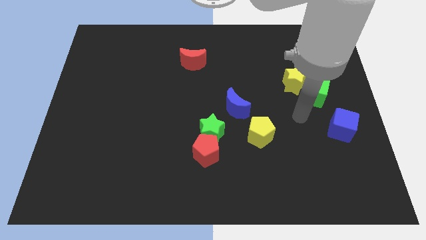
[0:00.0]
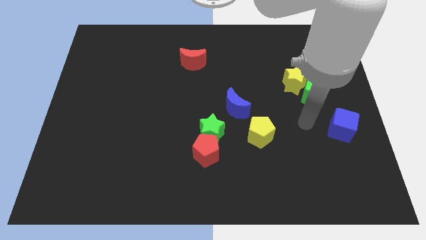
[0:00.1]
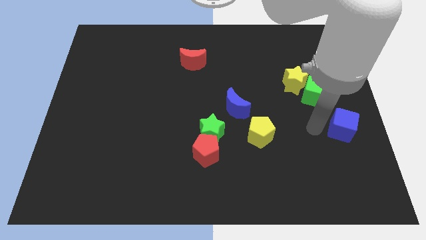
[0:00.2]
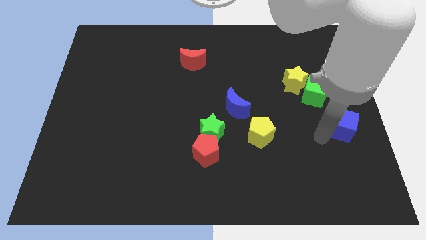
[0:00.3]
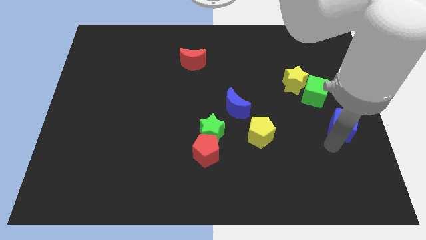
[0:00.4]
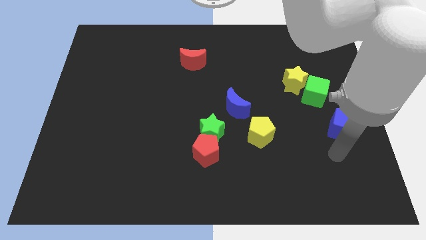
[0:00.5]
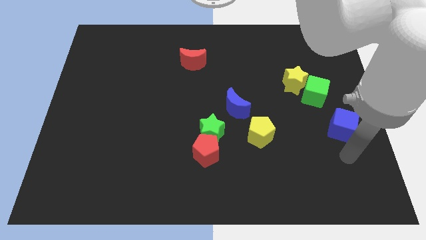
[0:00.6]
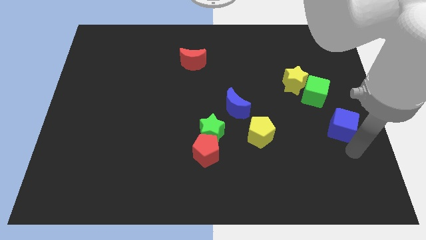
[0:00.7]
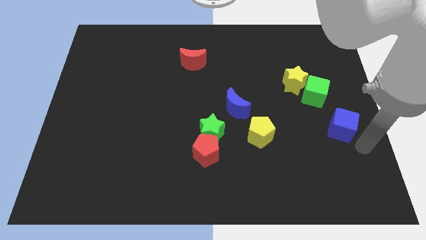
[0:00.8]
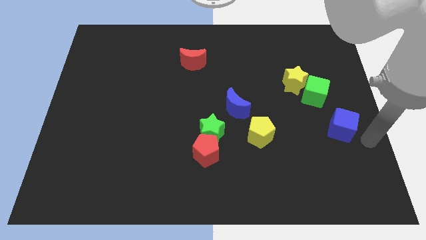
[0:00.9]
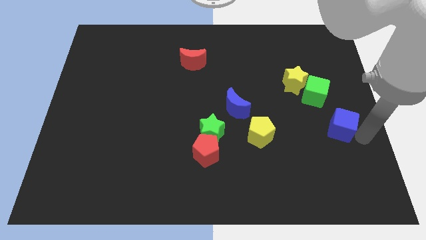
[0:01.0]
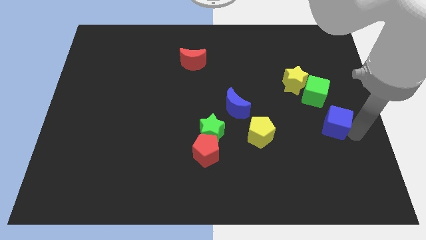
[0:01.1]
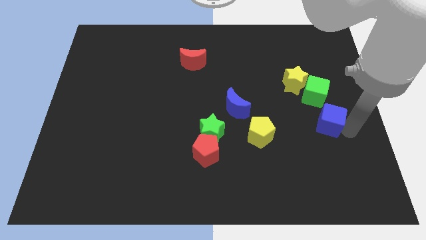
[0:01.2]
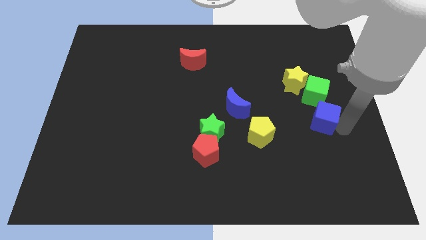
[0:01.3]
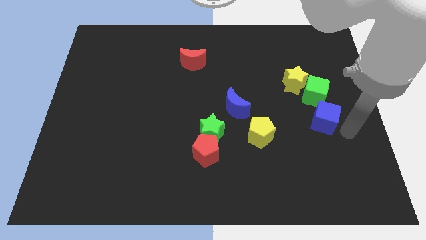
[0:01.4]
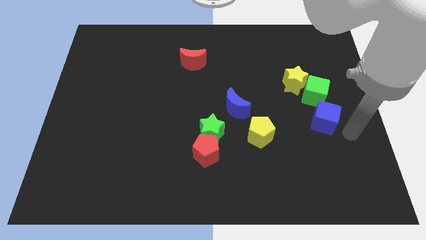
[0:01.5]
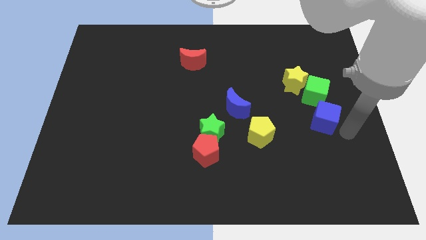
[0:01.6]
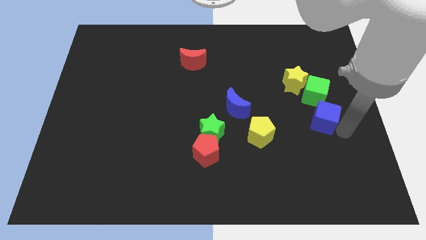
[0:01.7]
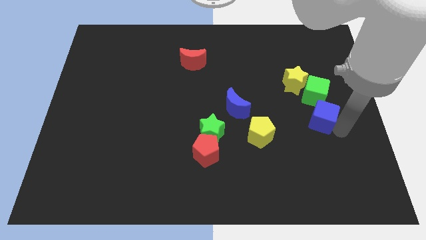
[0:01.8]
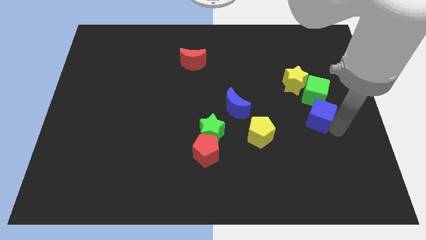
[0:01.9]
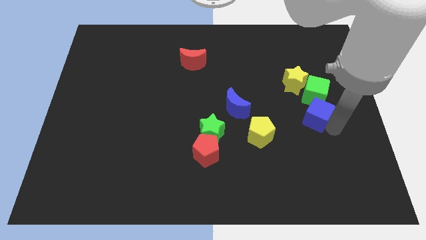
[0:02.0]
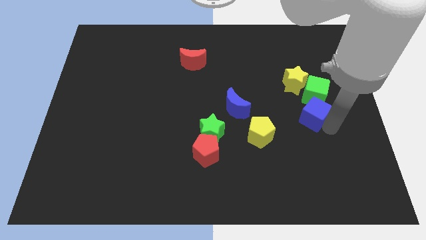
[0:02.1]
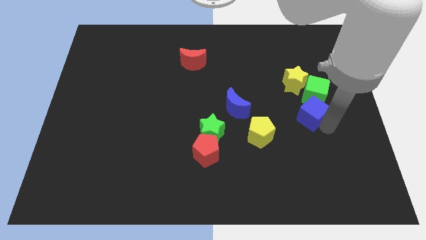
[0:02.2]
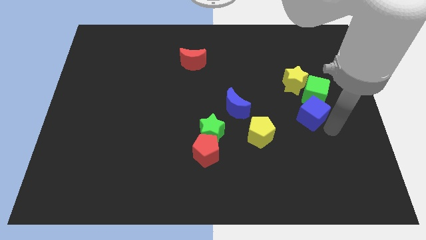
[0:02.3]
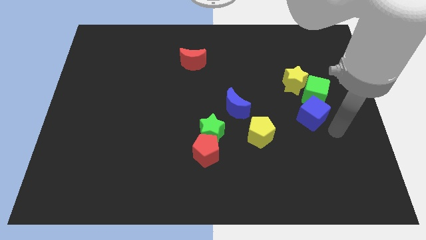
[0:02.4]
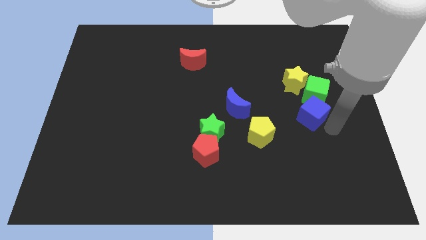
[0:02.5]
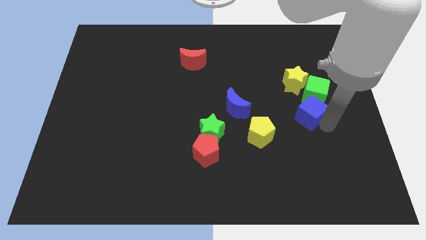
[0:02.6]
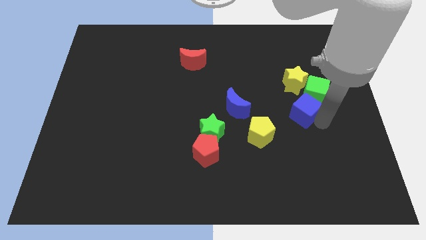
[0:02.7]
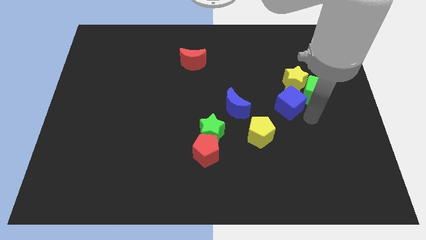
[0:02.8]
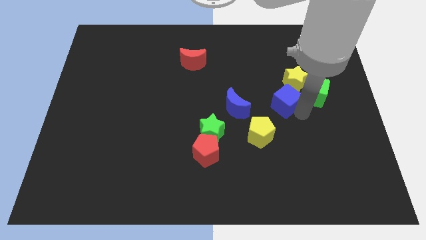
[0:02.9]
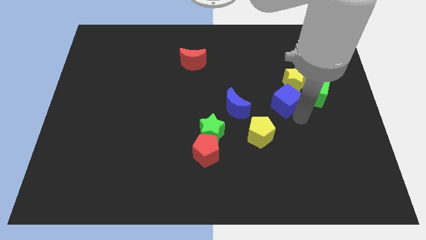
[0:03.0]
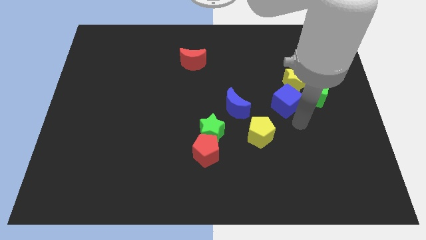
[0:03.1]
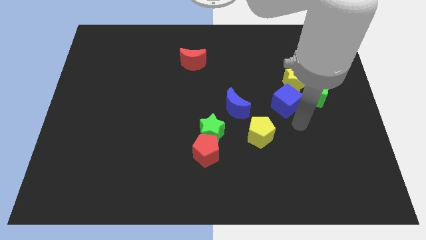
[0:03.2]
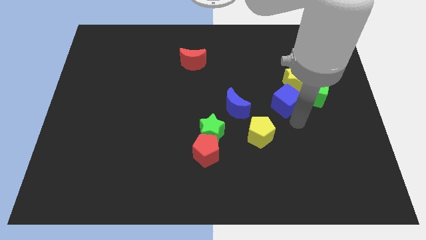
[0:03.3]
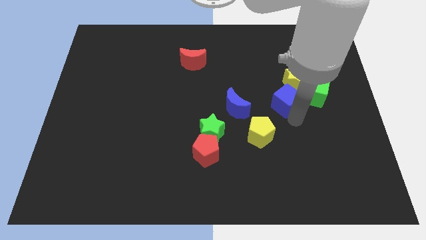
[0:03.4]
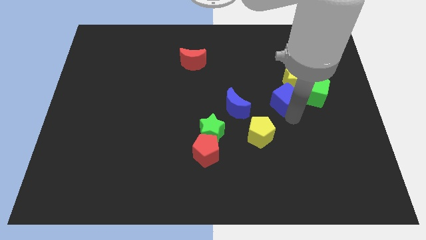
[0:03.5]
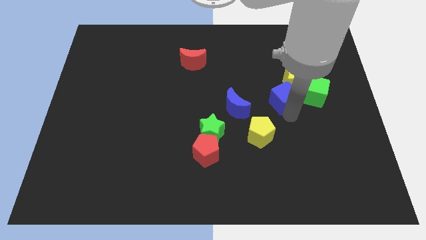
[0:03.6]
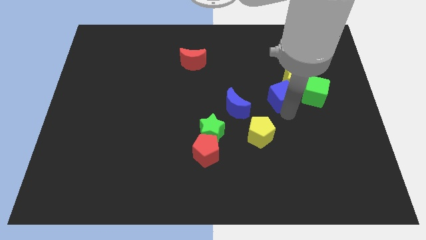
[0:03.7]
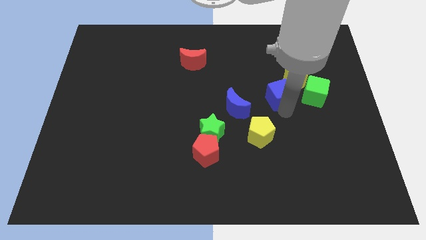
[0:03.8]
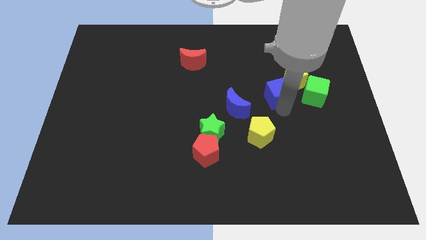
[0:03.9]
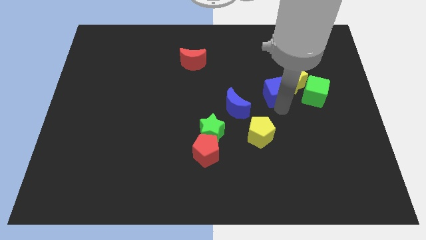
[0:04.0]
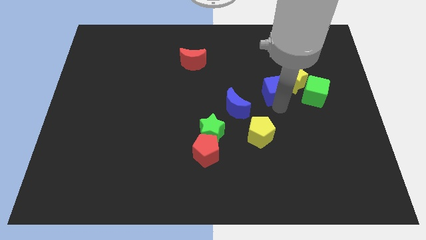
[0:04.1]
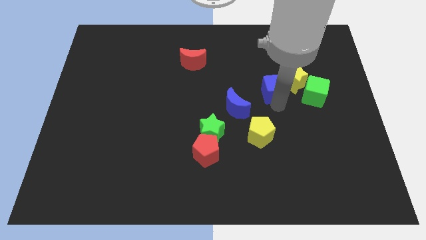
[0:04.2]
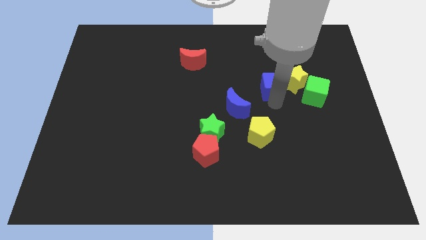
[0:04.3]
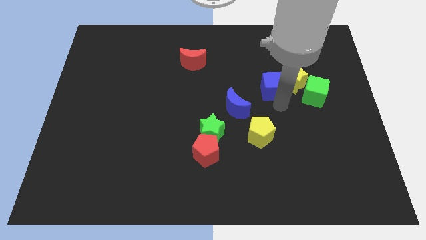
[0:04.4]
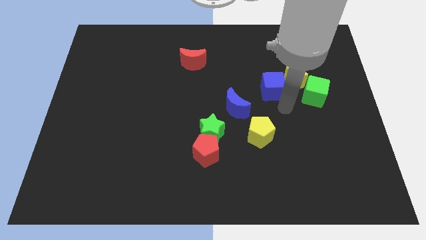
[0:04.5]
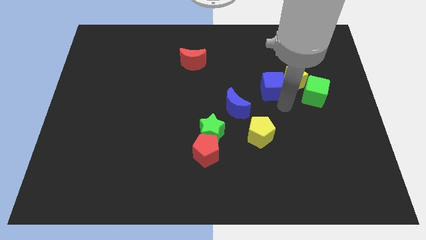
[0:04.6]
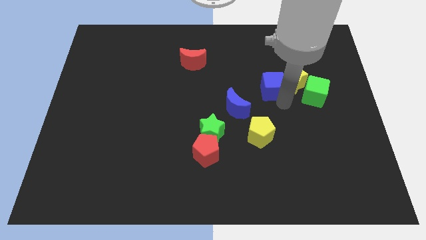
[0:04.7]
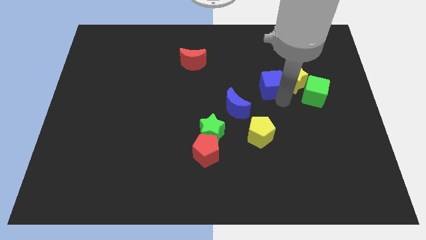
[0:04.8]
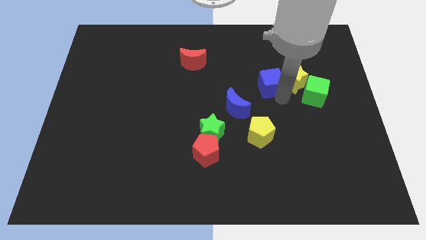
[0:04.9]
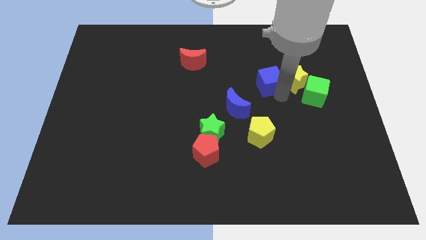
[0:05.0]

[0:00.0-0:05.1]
push the blue cube diagonally up and left

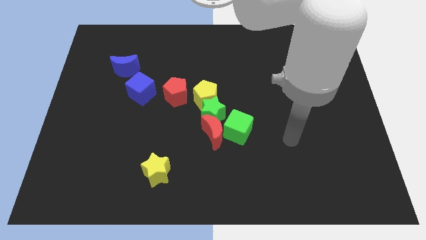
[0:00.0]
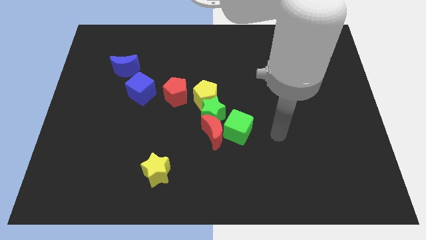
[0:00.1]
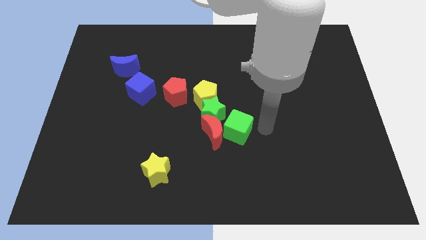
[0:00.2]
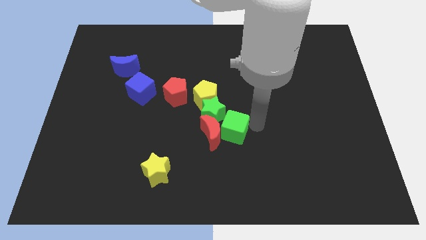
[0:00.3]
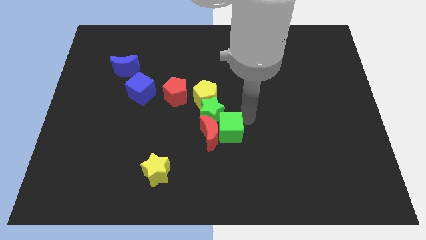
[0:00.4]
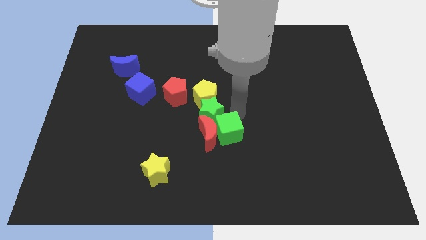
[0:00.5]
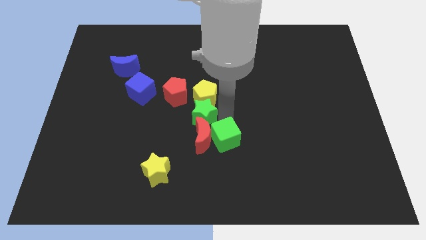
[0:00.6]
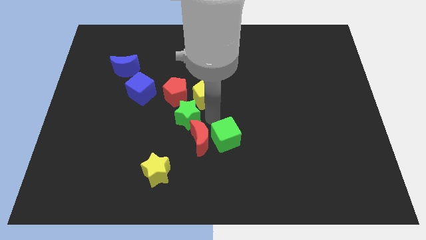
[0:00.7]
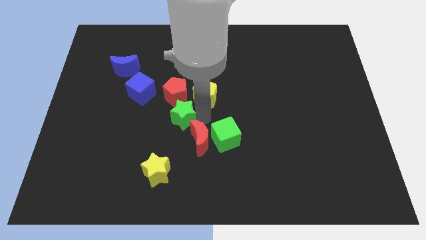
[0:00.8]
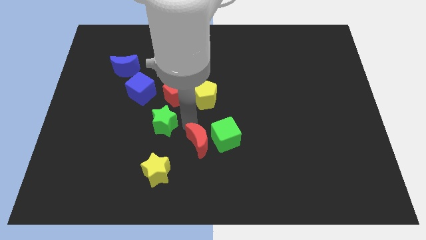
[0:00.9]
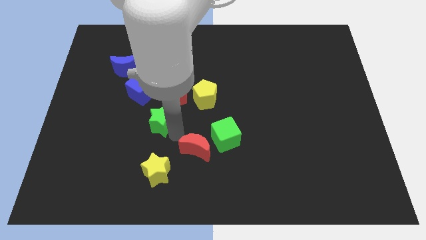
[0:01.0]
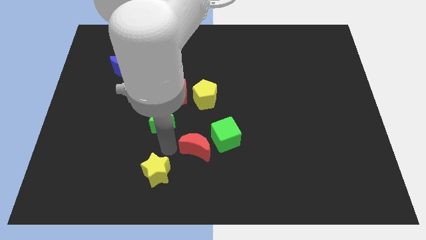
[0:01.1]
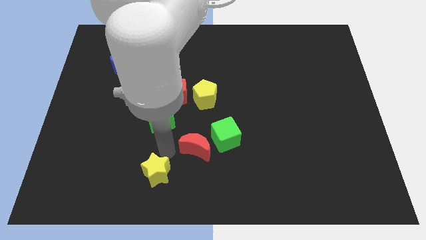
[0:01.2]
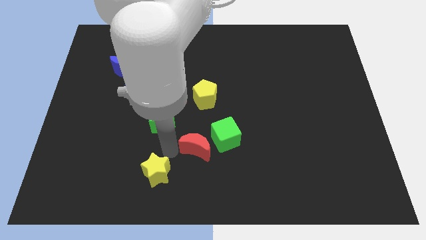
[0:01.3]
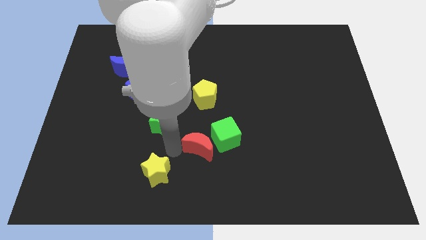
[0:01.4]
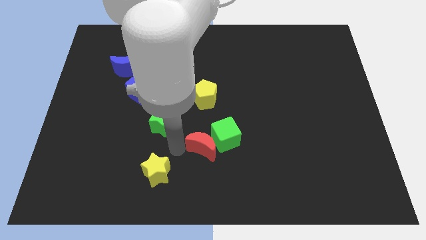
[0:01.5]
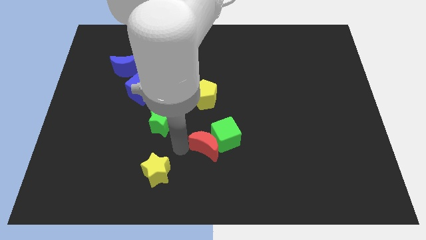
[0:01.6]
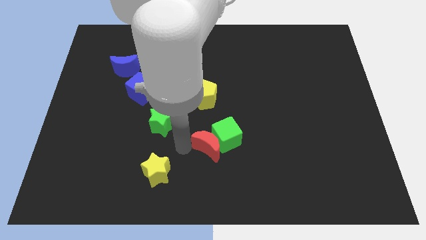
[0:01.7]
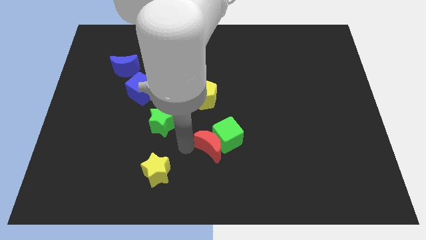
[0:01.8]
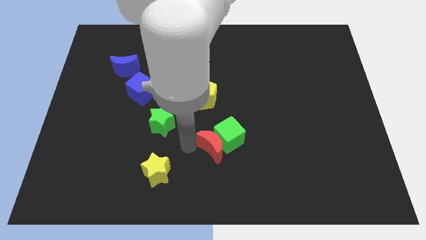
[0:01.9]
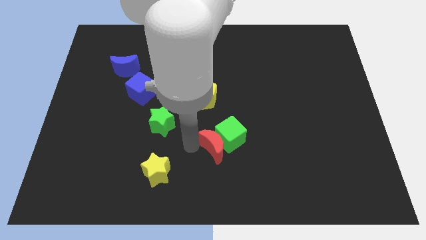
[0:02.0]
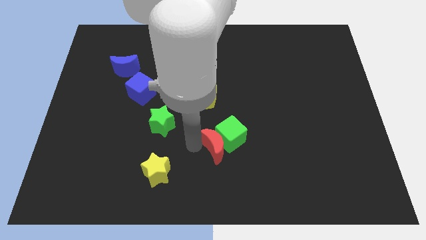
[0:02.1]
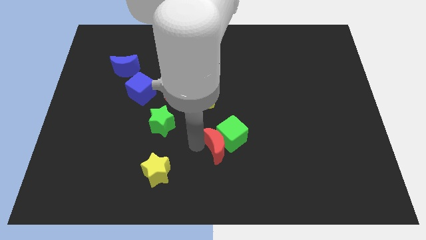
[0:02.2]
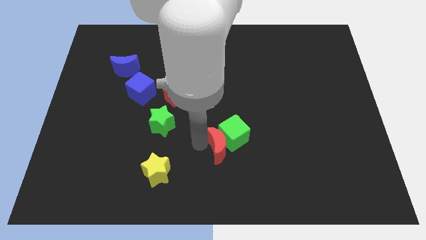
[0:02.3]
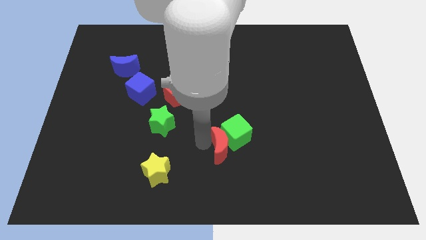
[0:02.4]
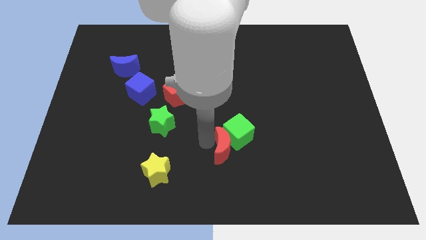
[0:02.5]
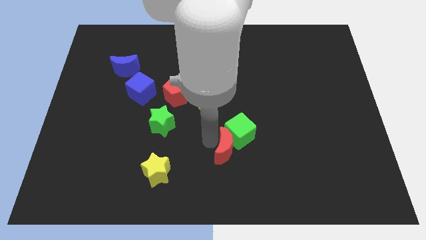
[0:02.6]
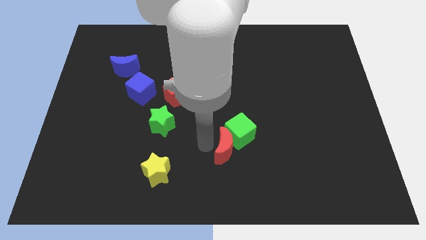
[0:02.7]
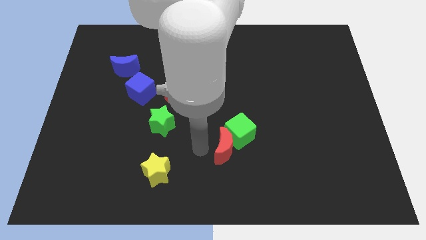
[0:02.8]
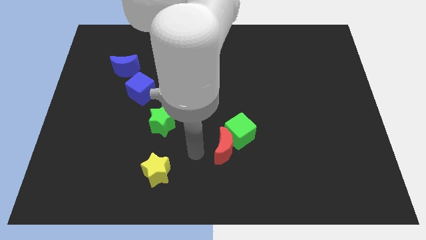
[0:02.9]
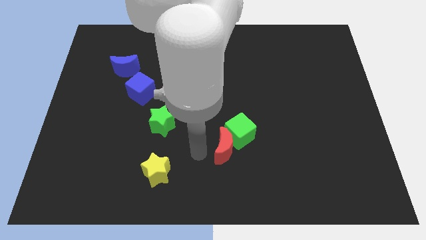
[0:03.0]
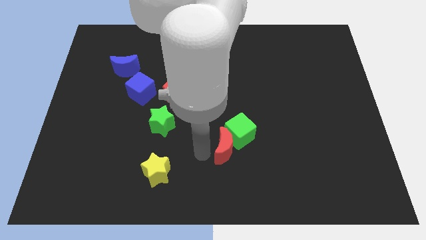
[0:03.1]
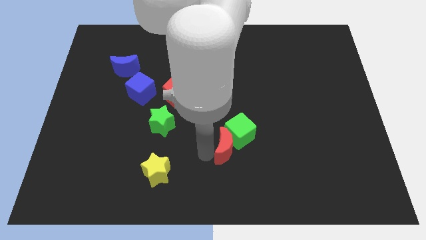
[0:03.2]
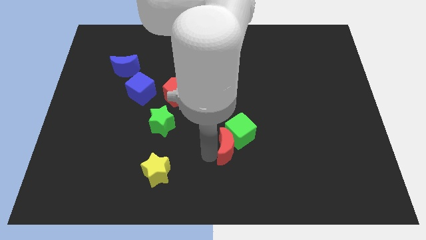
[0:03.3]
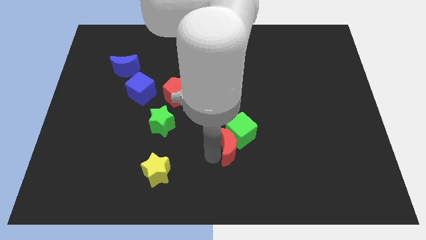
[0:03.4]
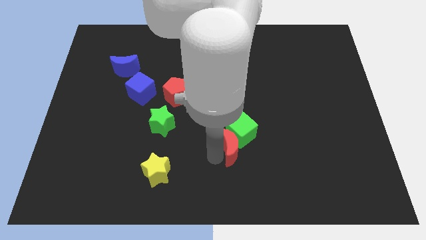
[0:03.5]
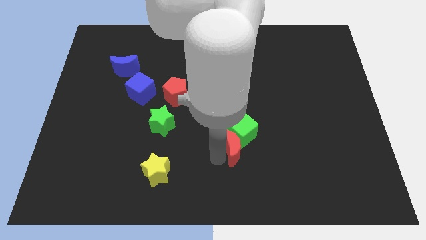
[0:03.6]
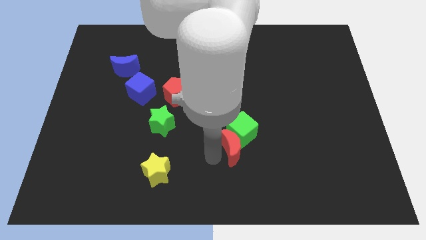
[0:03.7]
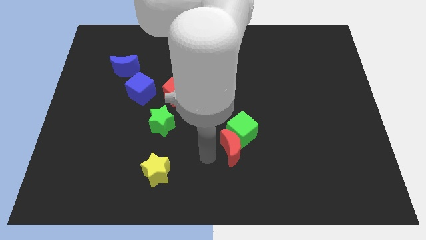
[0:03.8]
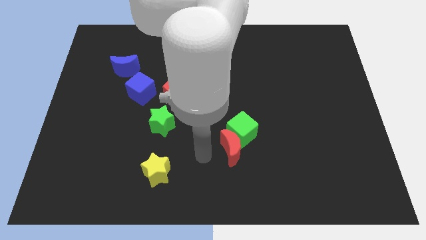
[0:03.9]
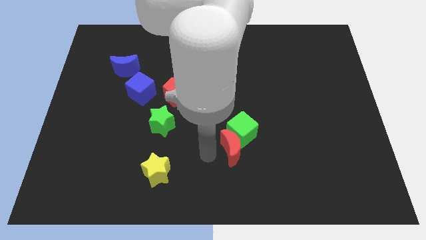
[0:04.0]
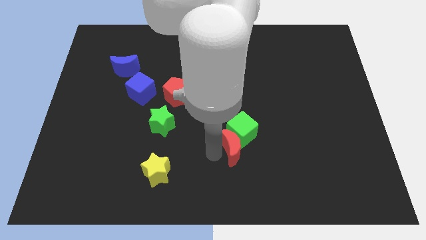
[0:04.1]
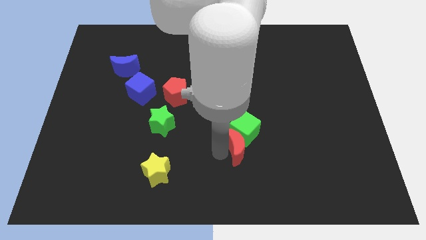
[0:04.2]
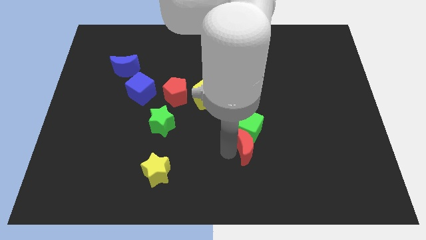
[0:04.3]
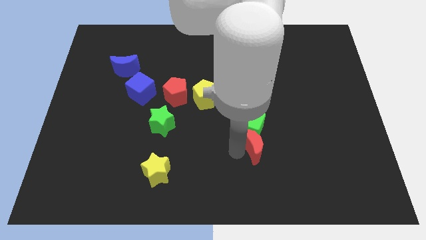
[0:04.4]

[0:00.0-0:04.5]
move the red moon a bit to the right
